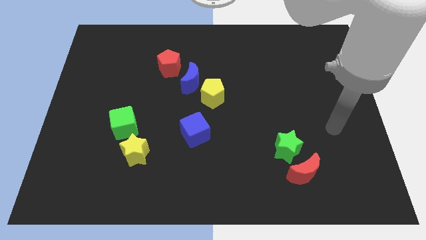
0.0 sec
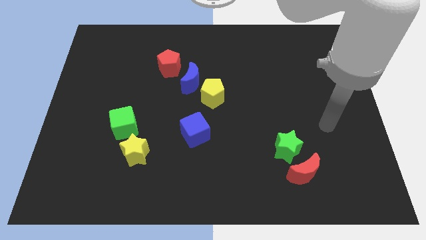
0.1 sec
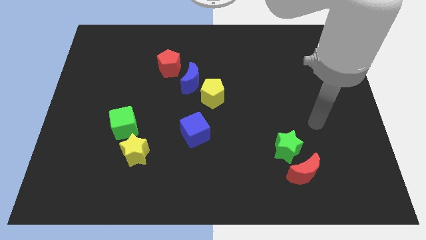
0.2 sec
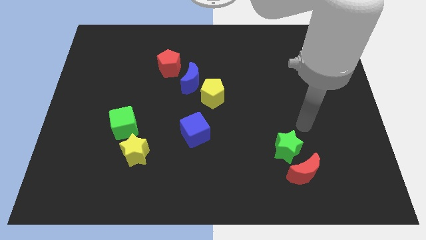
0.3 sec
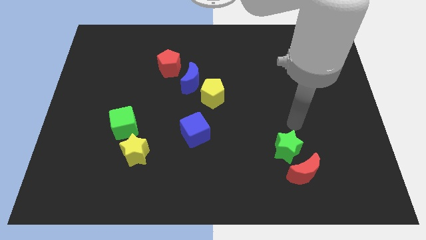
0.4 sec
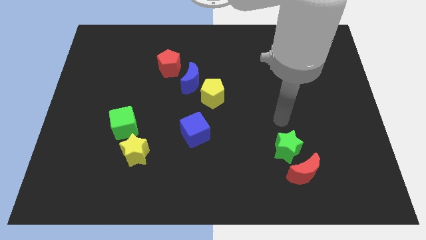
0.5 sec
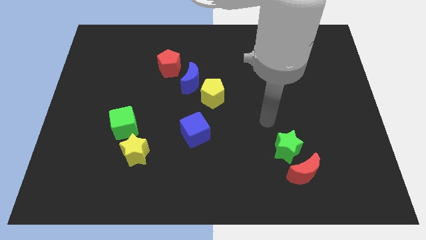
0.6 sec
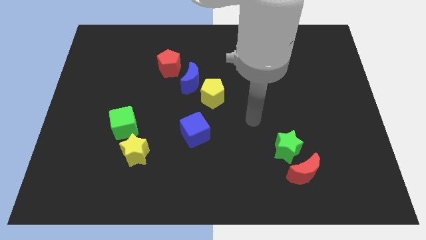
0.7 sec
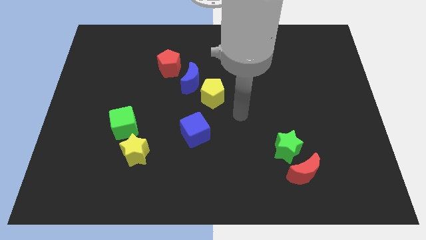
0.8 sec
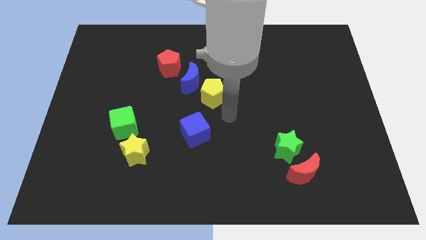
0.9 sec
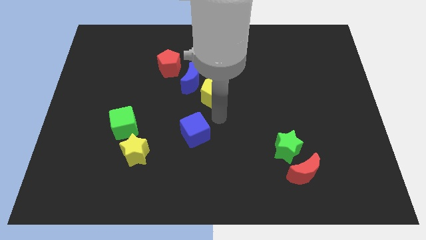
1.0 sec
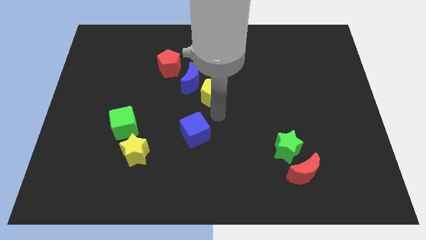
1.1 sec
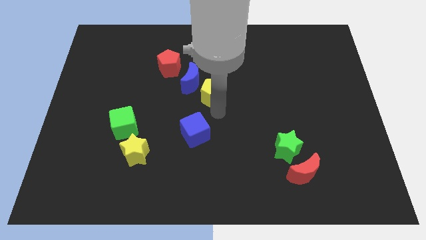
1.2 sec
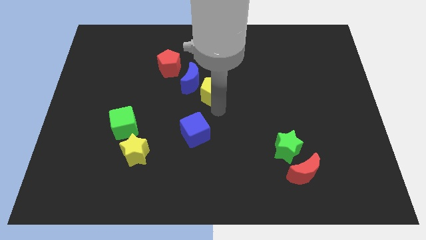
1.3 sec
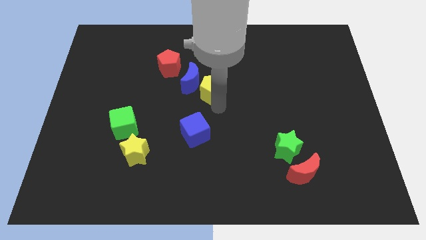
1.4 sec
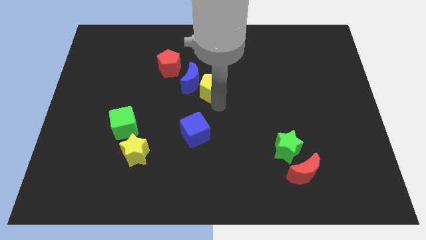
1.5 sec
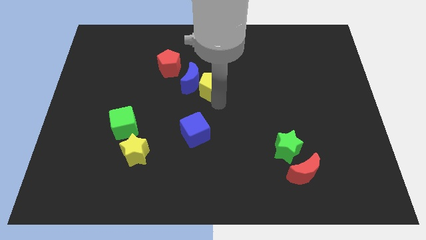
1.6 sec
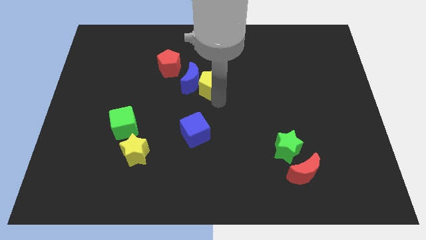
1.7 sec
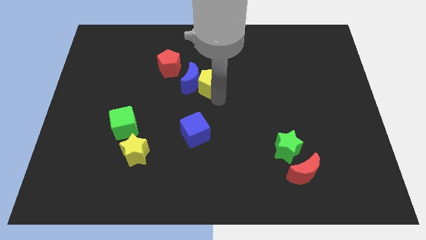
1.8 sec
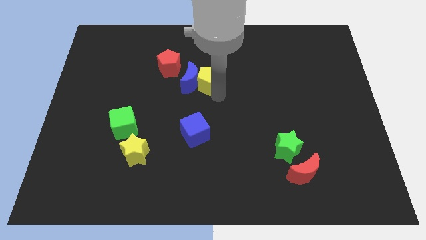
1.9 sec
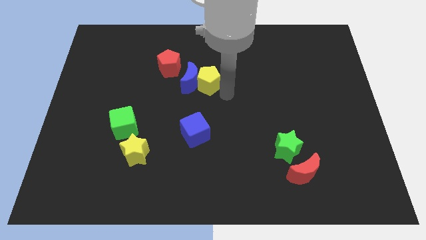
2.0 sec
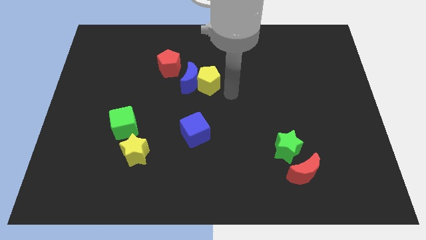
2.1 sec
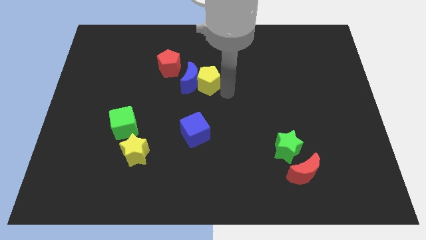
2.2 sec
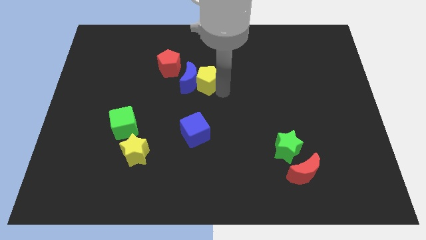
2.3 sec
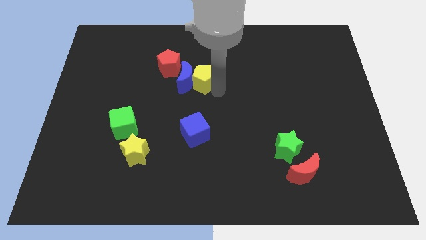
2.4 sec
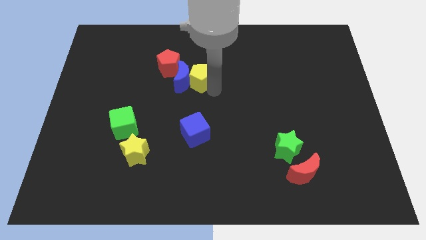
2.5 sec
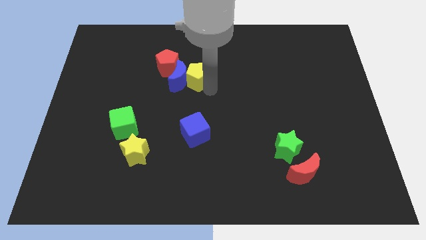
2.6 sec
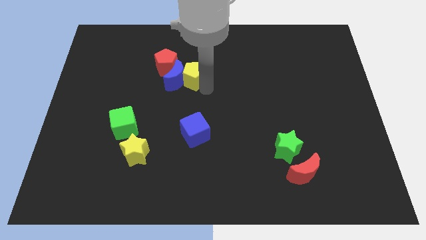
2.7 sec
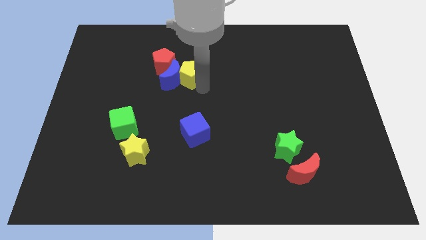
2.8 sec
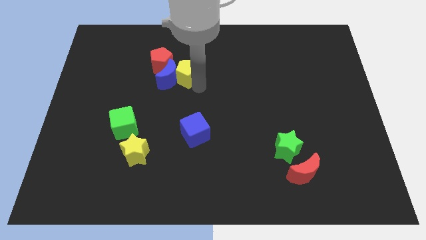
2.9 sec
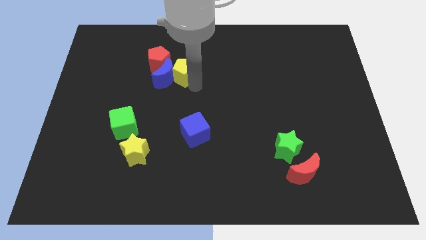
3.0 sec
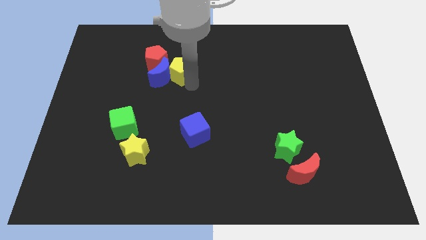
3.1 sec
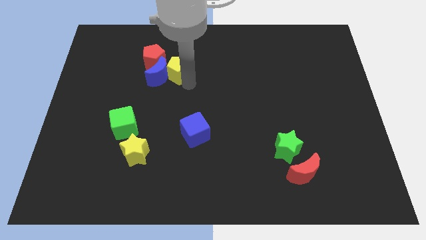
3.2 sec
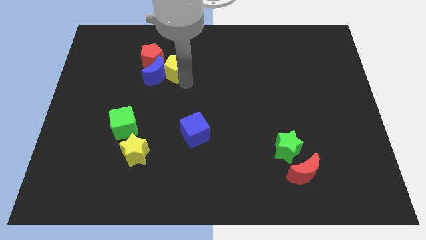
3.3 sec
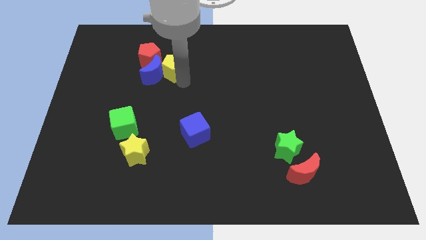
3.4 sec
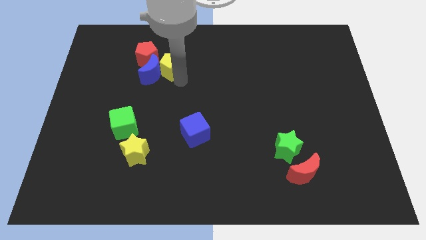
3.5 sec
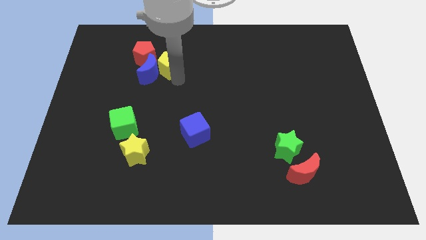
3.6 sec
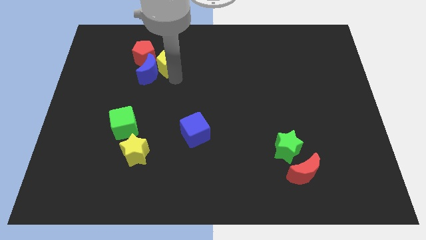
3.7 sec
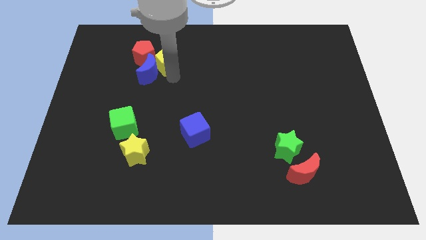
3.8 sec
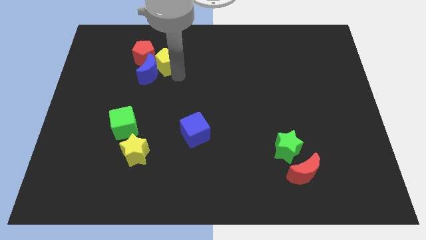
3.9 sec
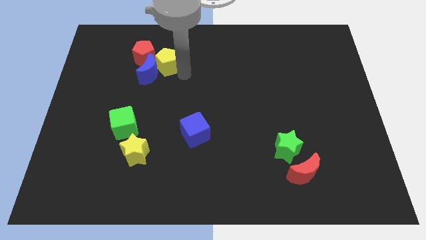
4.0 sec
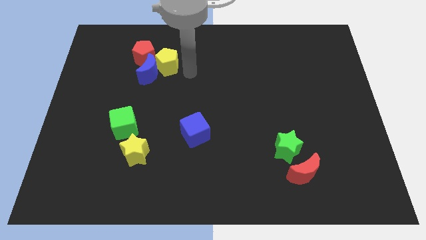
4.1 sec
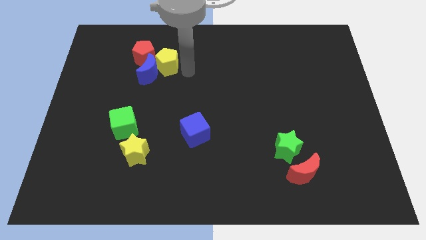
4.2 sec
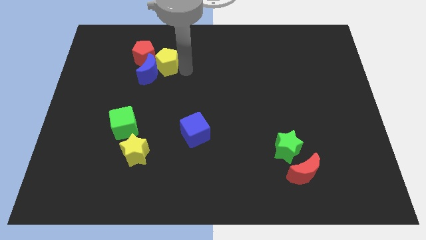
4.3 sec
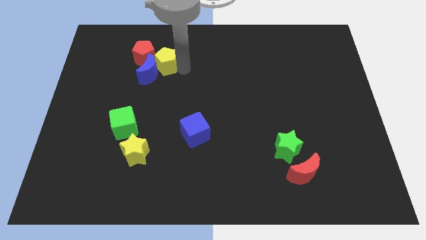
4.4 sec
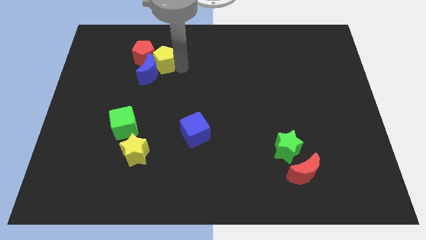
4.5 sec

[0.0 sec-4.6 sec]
push the yellow pentagon towards the red pentagon

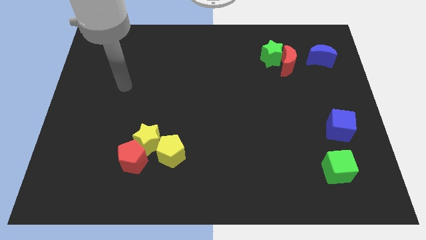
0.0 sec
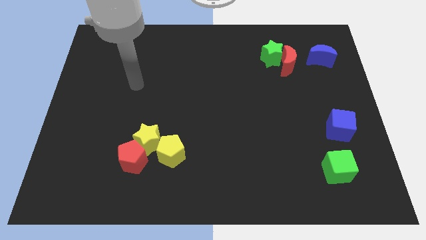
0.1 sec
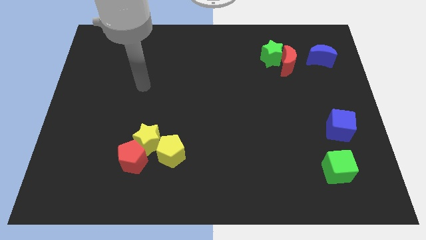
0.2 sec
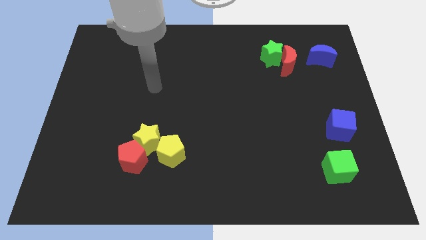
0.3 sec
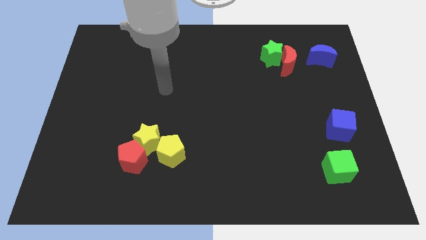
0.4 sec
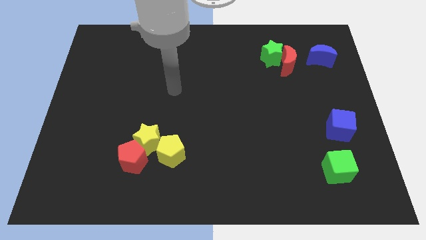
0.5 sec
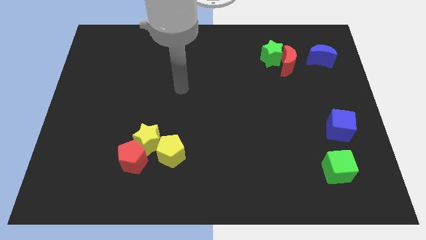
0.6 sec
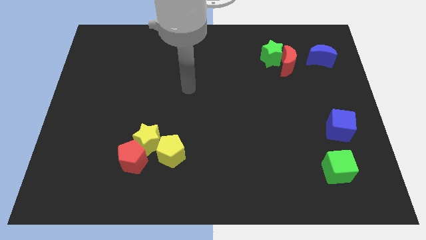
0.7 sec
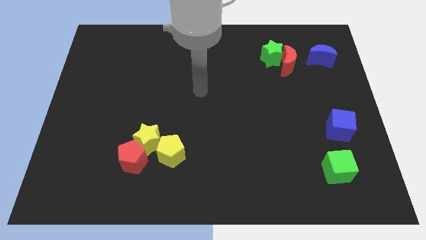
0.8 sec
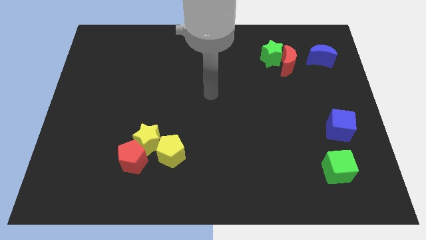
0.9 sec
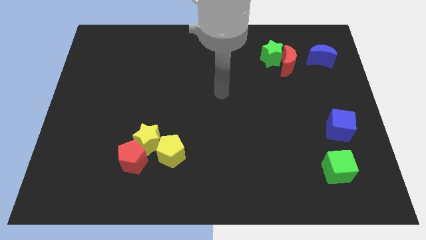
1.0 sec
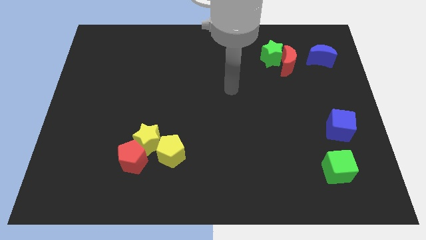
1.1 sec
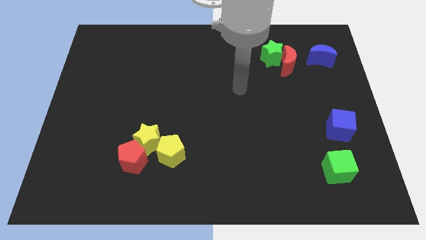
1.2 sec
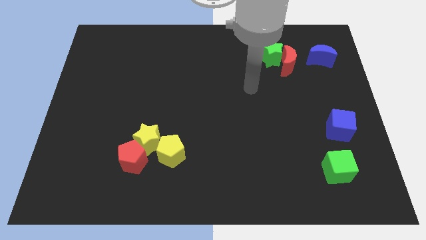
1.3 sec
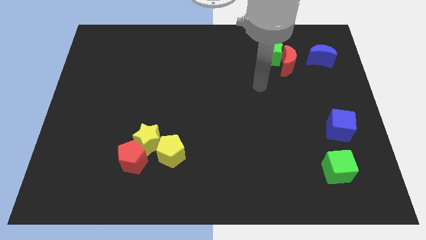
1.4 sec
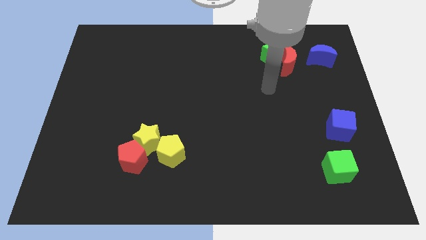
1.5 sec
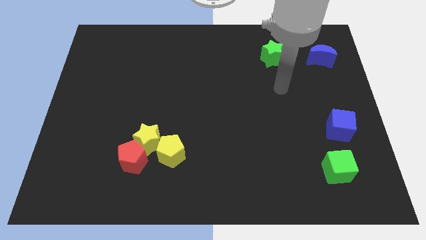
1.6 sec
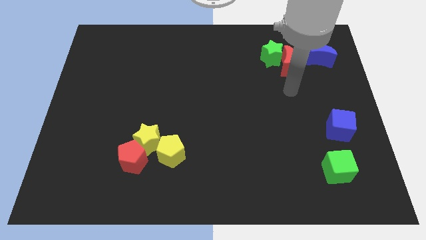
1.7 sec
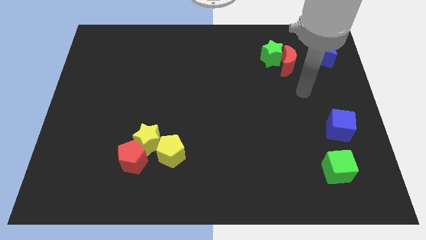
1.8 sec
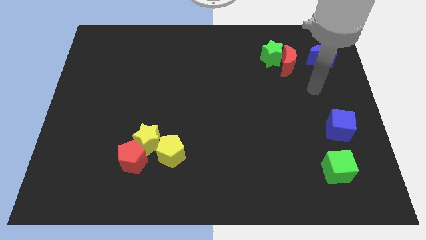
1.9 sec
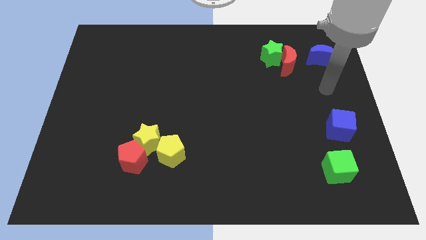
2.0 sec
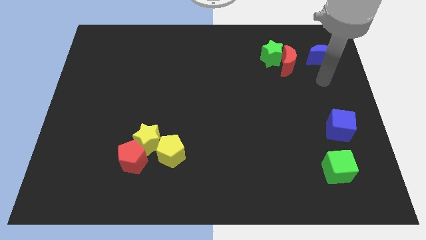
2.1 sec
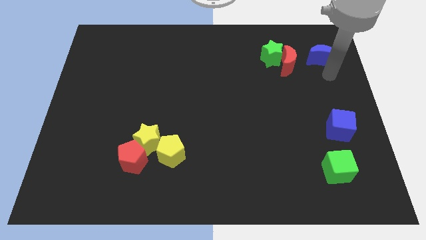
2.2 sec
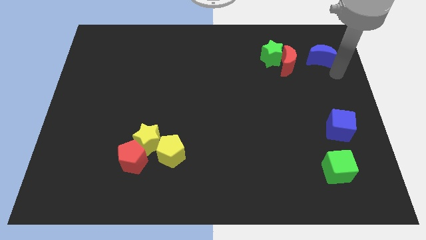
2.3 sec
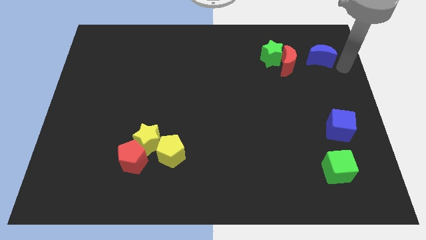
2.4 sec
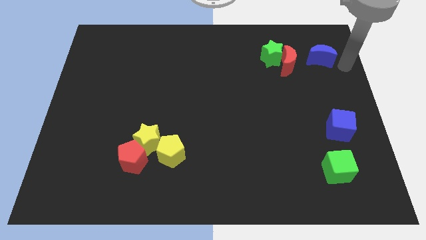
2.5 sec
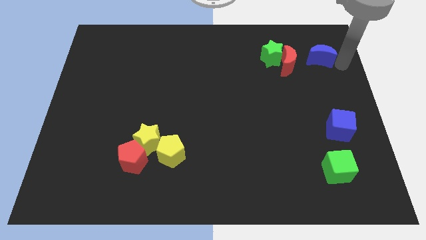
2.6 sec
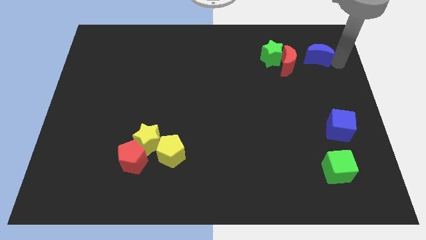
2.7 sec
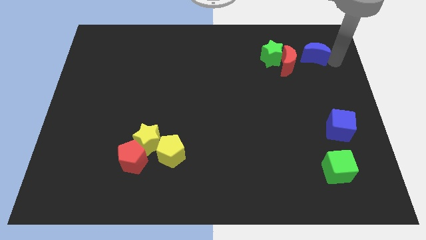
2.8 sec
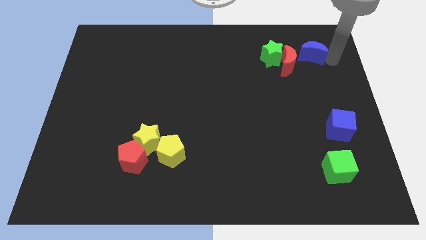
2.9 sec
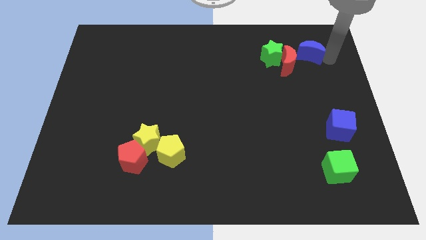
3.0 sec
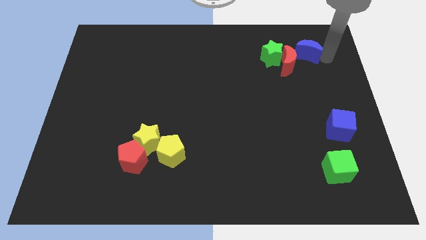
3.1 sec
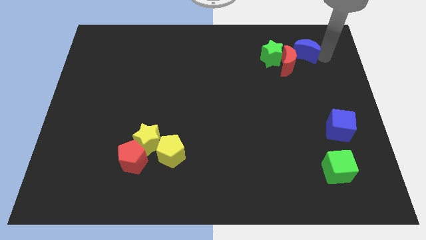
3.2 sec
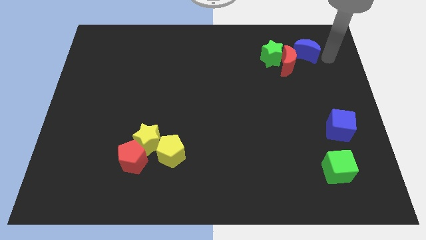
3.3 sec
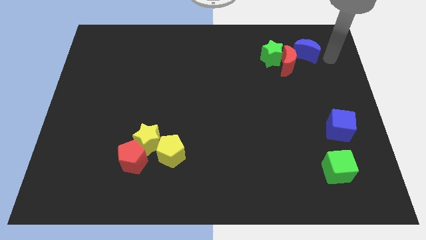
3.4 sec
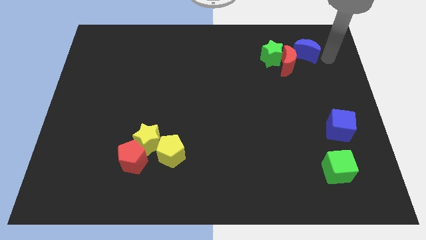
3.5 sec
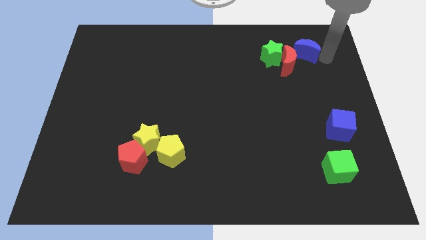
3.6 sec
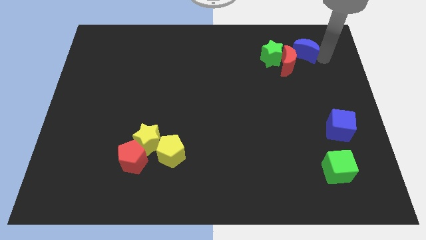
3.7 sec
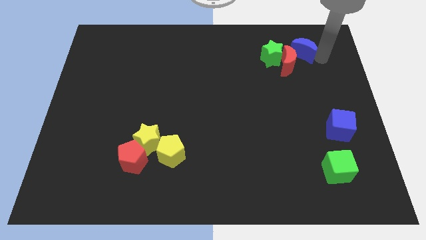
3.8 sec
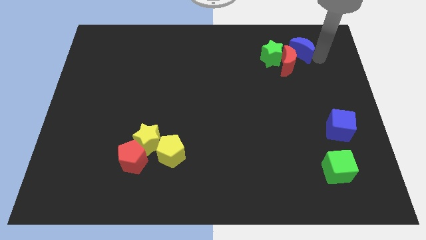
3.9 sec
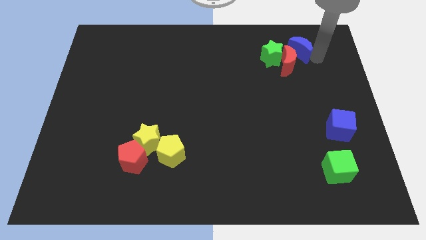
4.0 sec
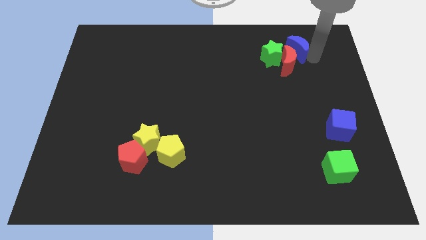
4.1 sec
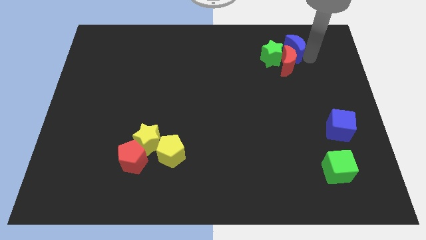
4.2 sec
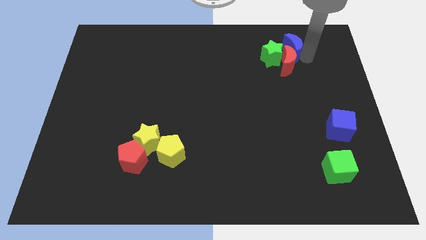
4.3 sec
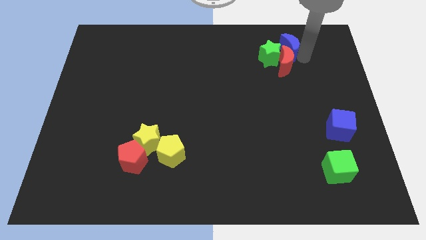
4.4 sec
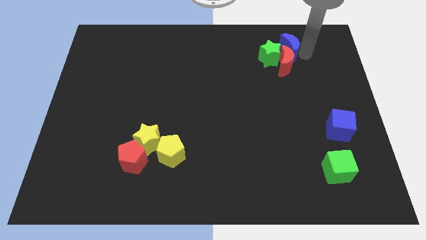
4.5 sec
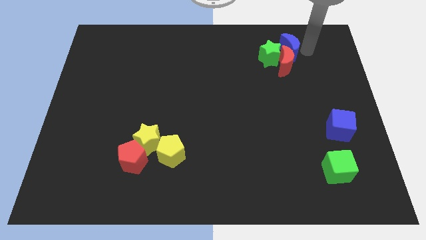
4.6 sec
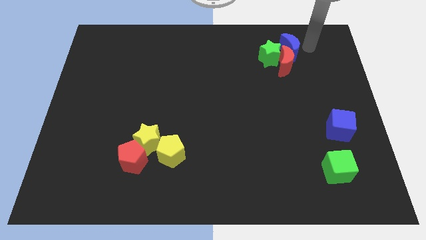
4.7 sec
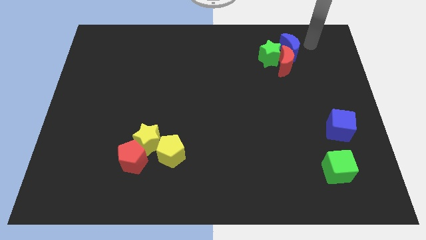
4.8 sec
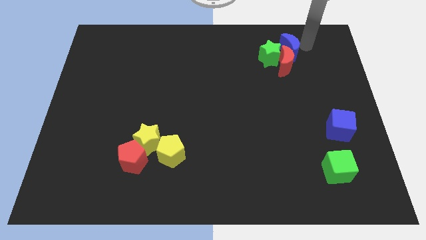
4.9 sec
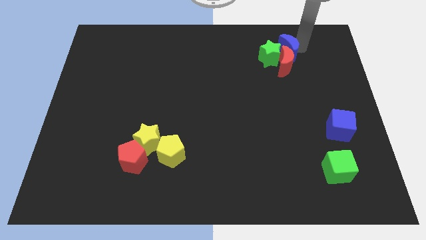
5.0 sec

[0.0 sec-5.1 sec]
move the blue moon close to the green star
